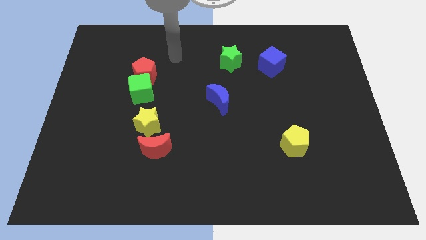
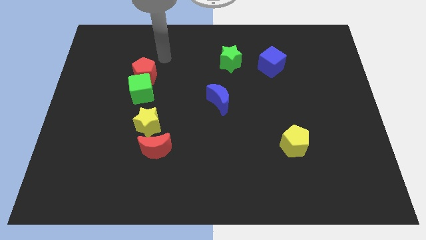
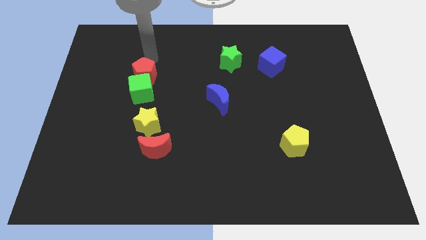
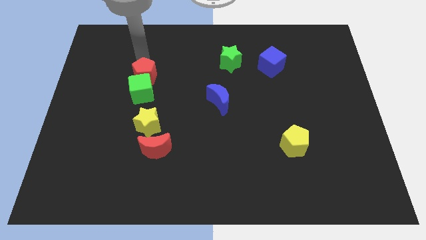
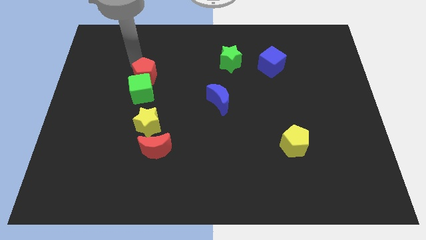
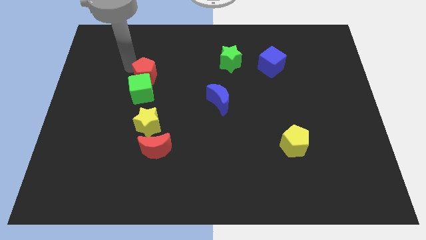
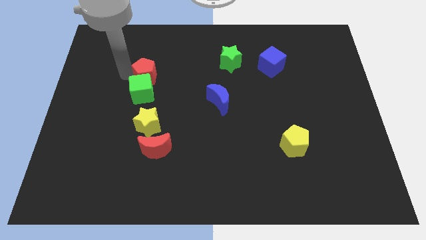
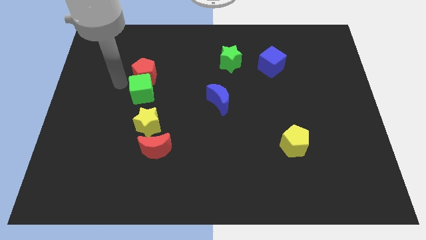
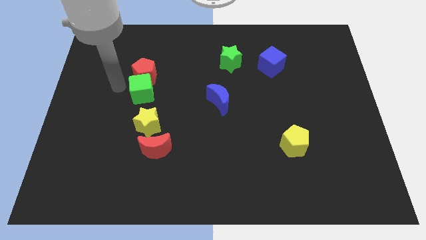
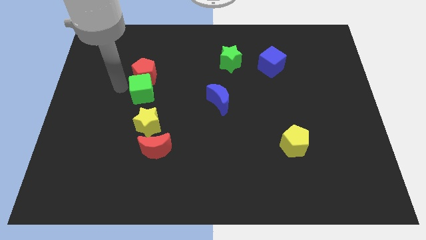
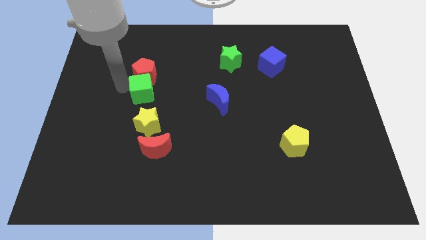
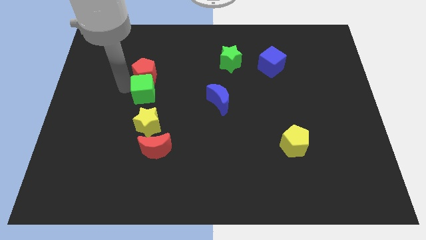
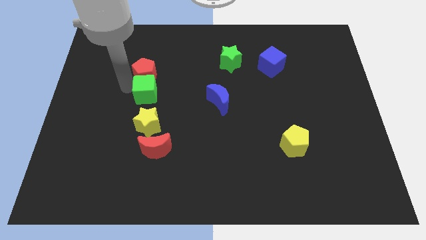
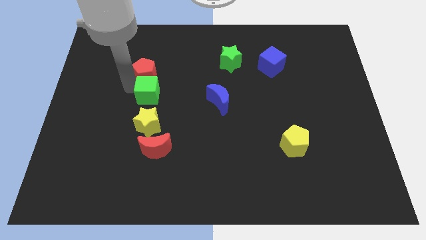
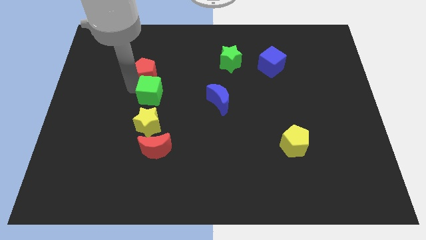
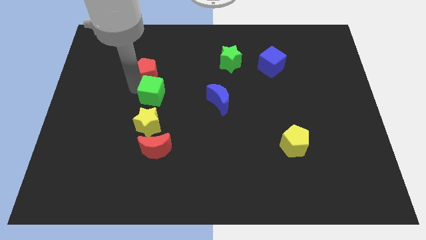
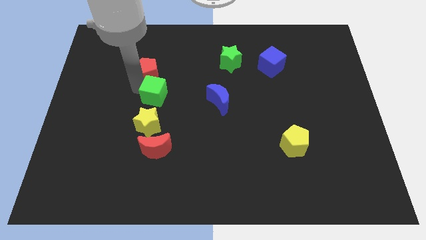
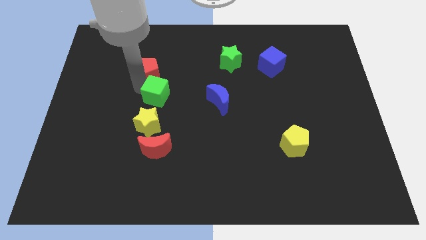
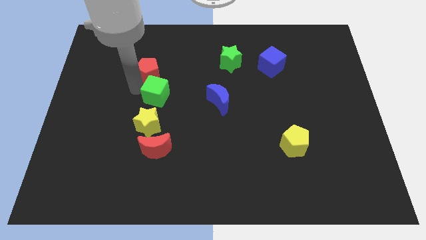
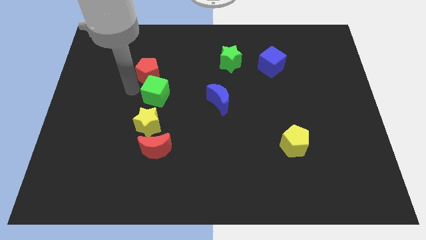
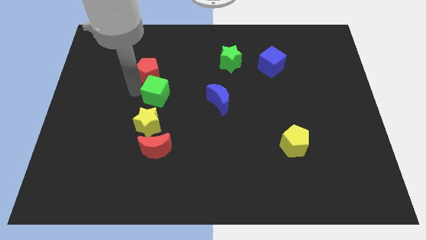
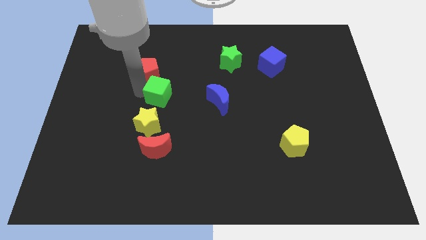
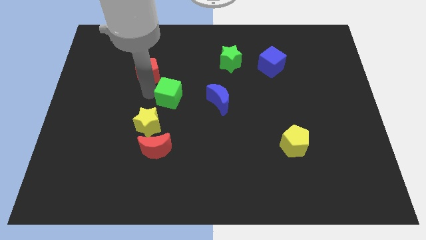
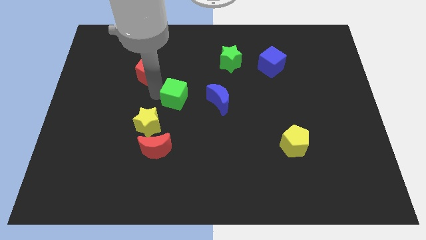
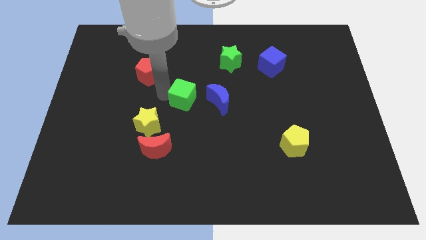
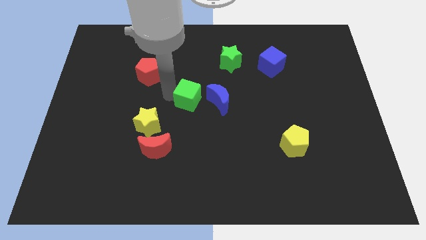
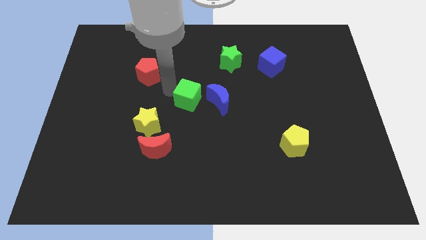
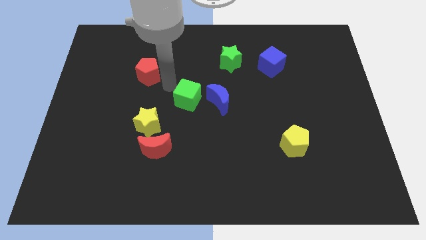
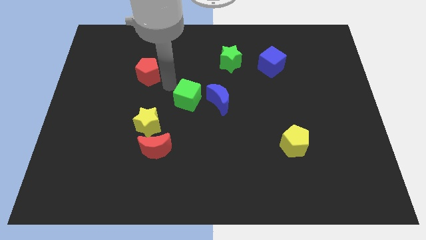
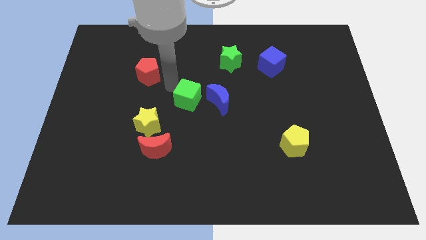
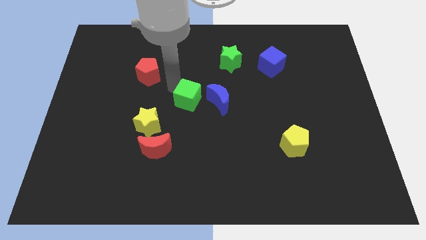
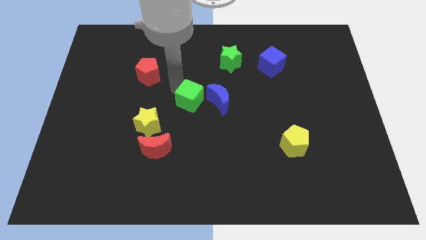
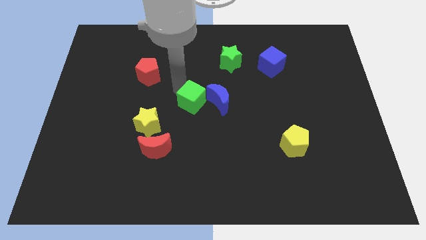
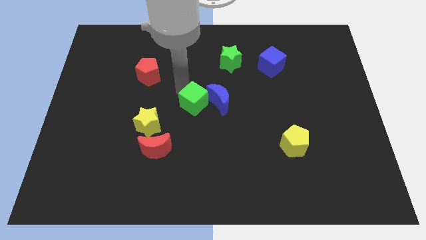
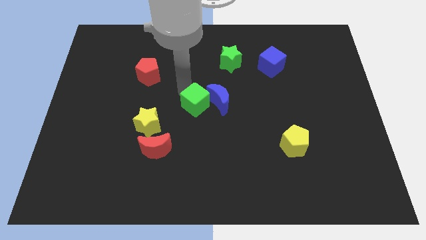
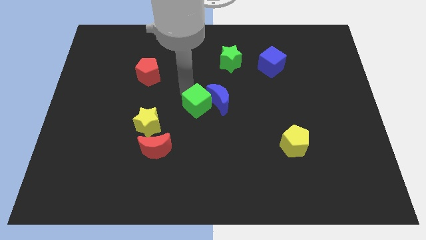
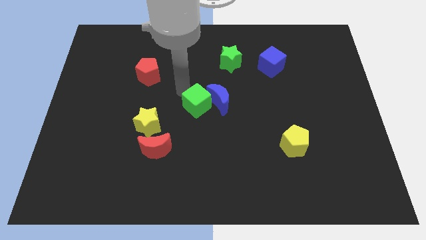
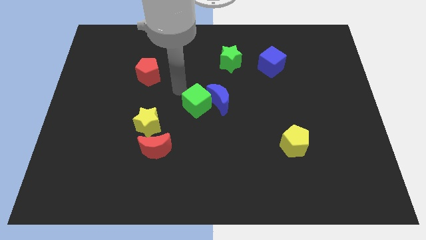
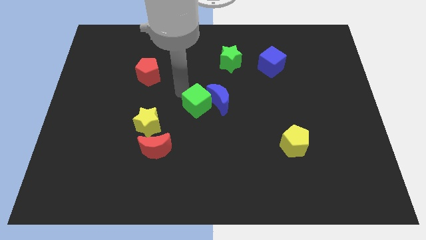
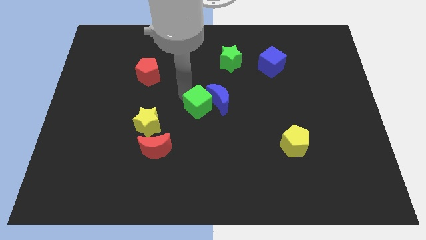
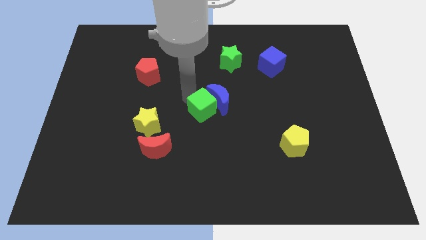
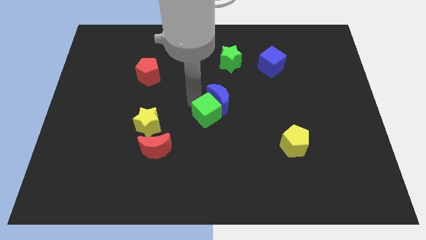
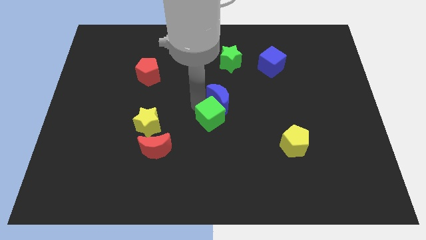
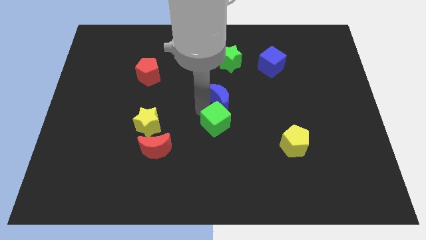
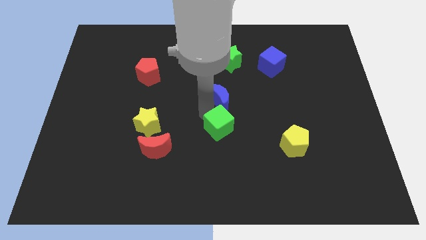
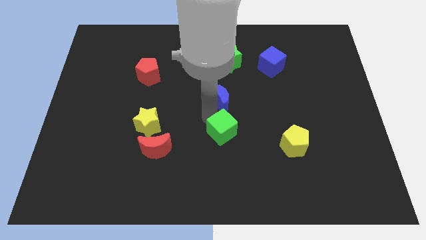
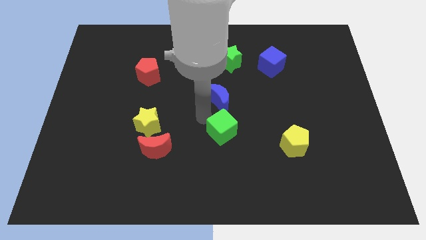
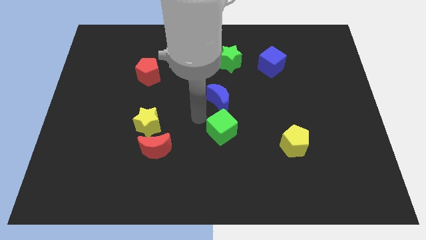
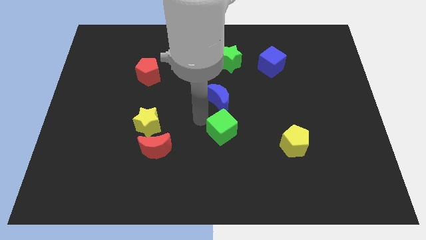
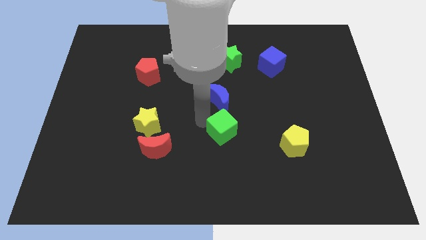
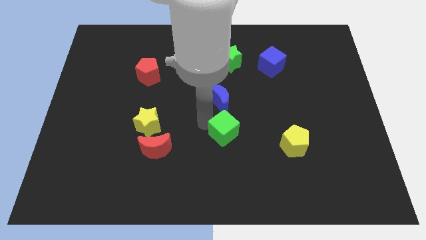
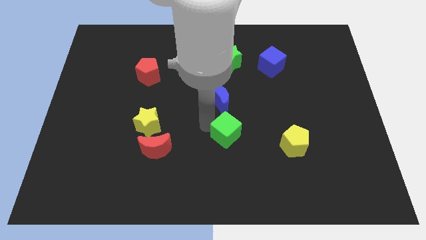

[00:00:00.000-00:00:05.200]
push the green cube to the left side of the yellow pentagon
